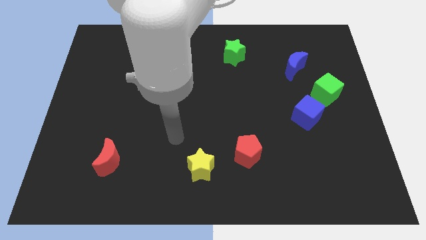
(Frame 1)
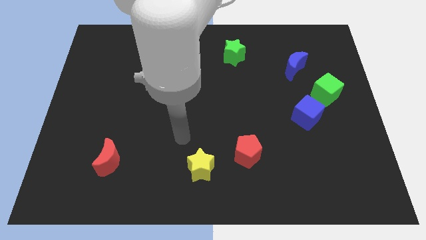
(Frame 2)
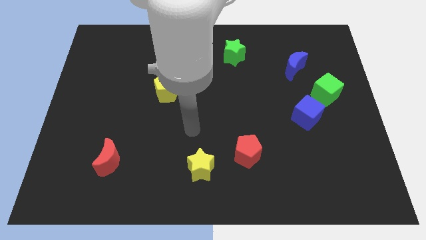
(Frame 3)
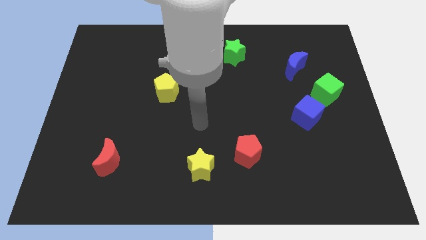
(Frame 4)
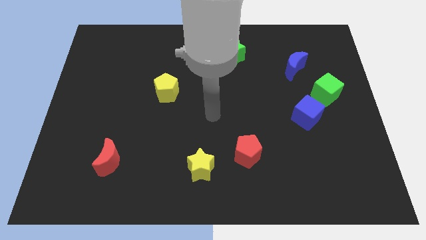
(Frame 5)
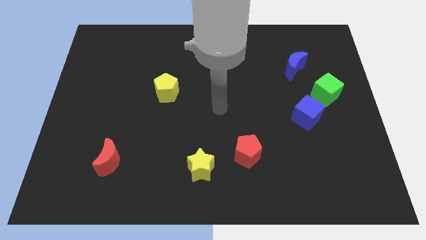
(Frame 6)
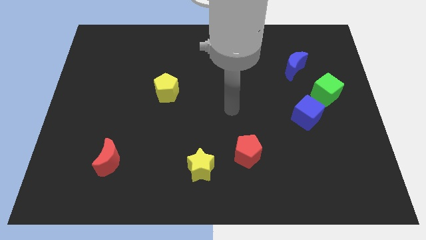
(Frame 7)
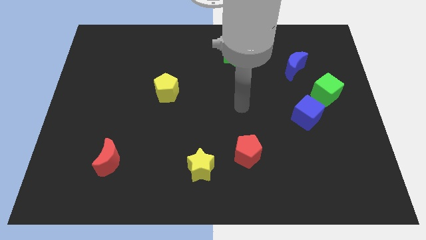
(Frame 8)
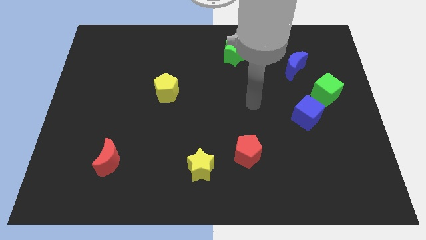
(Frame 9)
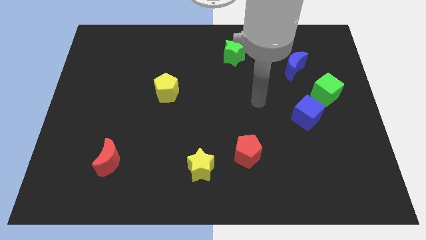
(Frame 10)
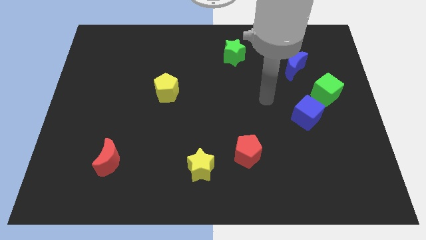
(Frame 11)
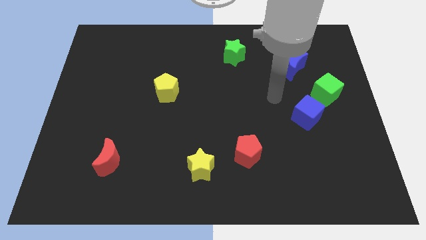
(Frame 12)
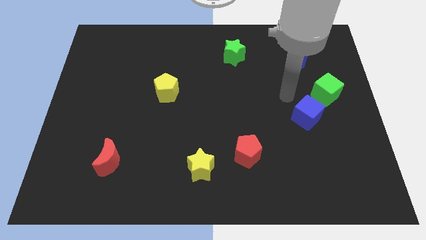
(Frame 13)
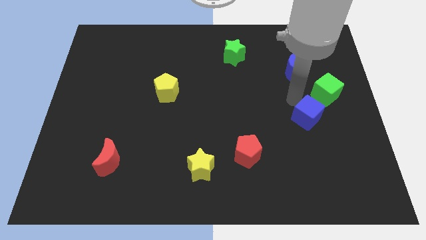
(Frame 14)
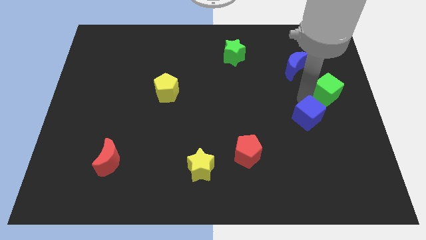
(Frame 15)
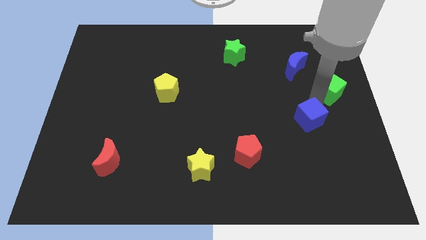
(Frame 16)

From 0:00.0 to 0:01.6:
pull the blue cube apart from the green cube

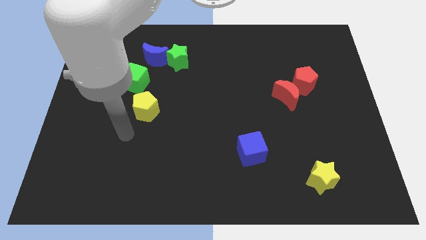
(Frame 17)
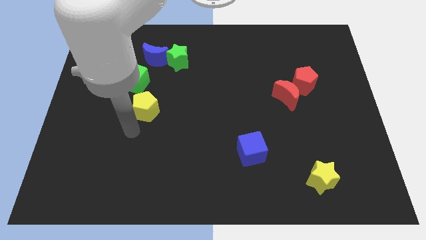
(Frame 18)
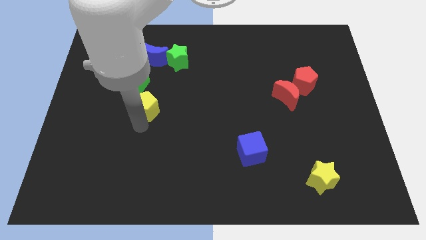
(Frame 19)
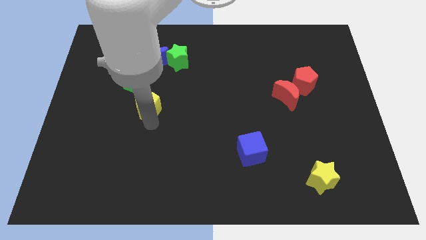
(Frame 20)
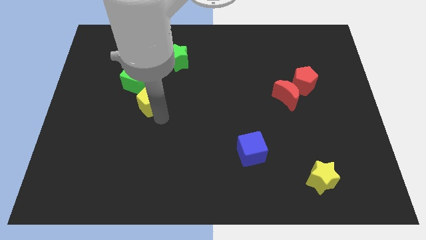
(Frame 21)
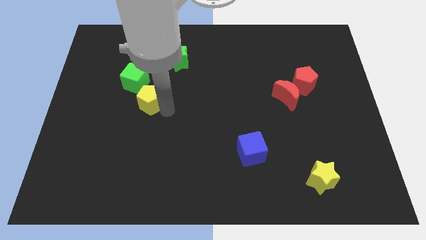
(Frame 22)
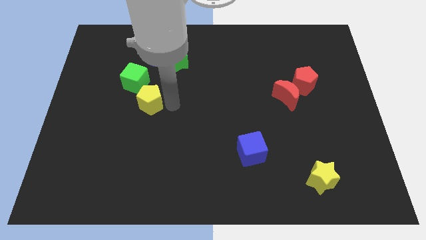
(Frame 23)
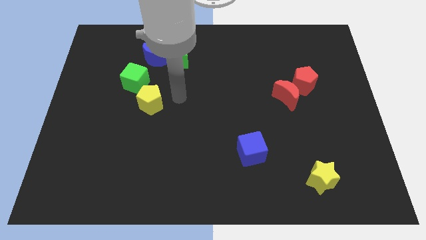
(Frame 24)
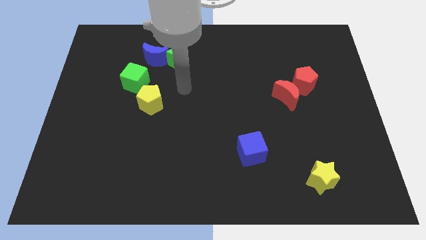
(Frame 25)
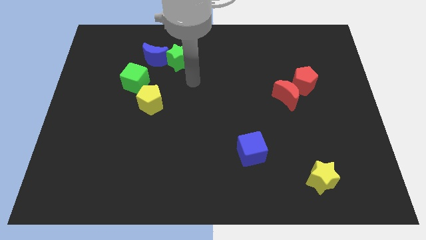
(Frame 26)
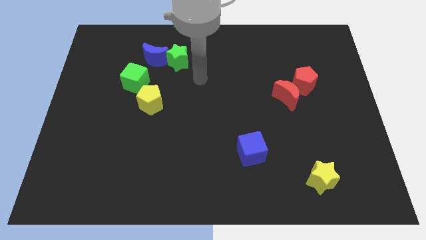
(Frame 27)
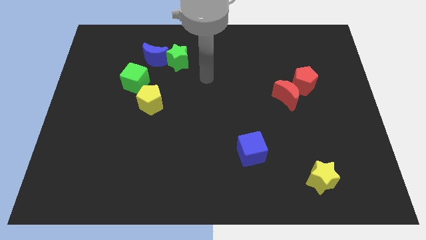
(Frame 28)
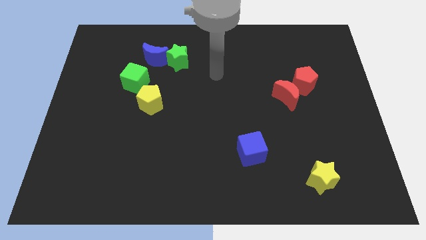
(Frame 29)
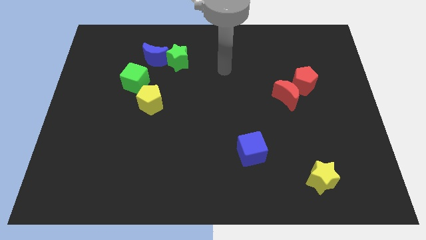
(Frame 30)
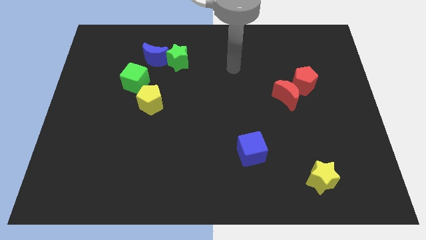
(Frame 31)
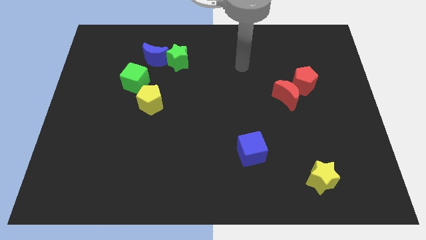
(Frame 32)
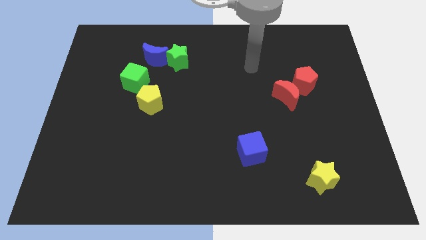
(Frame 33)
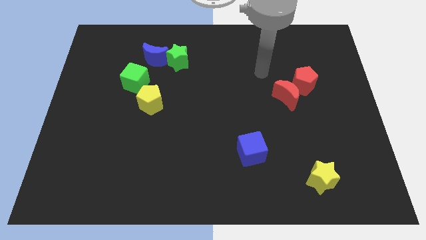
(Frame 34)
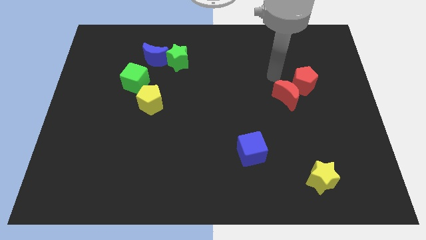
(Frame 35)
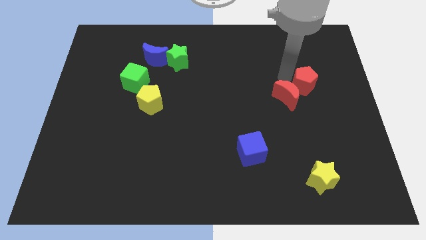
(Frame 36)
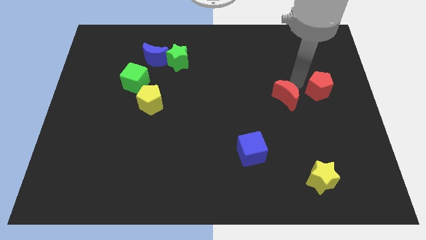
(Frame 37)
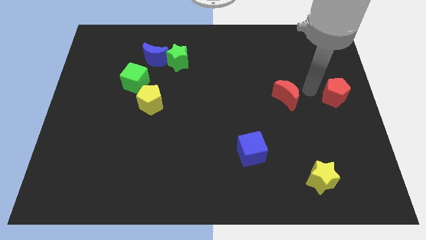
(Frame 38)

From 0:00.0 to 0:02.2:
pull the red moon apart from the red pentagon

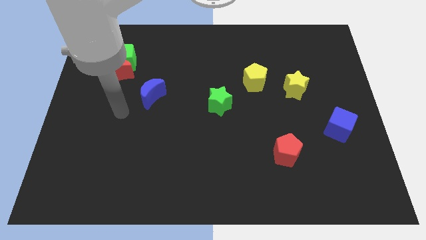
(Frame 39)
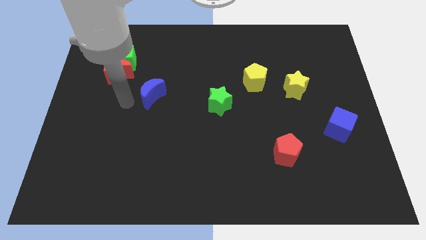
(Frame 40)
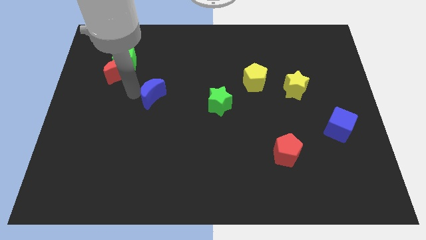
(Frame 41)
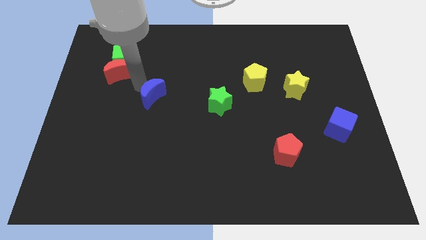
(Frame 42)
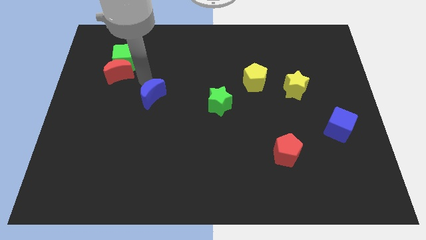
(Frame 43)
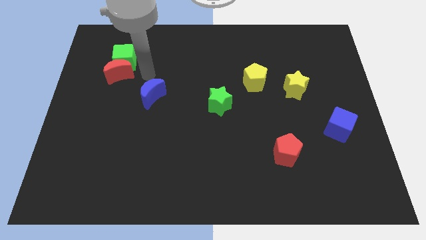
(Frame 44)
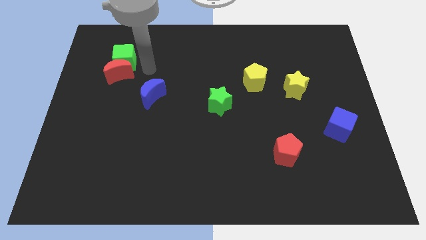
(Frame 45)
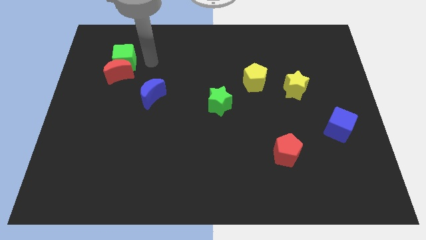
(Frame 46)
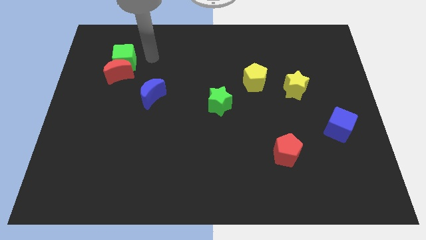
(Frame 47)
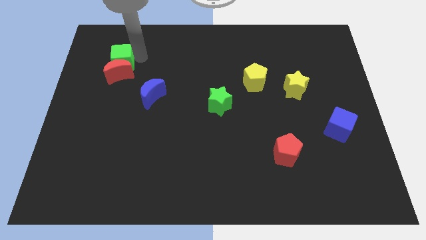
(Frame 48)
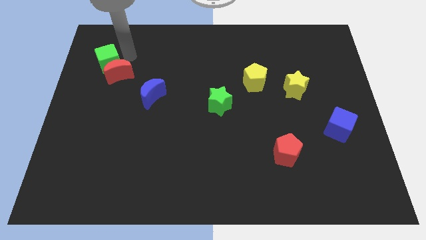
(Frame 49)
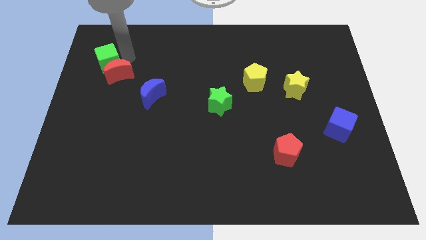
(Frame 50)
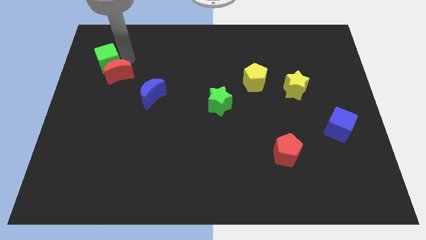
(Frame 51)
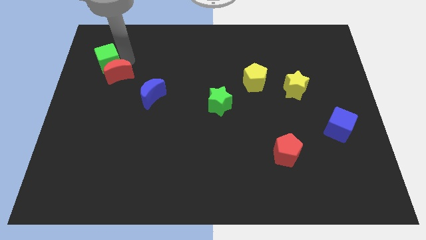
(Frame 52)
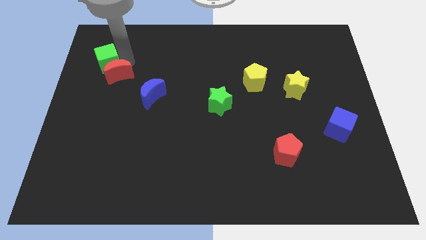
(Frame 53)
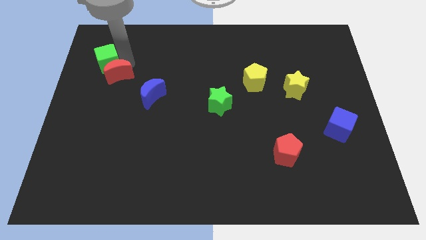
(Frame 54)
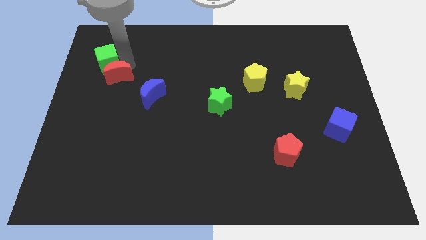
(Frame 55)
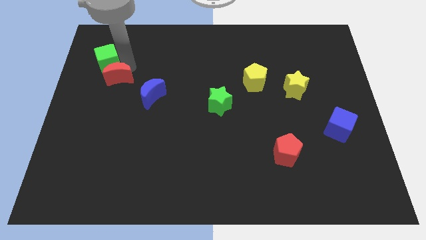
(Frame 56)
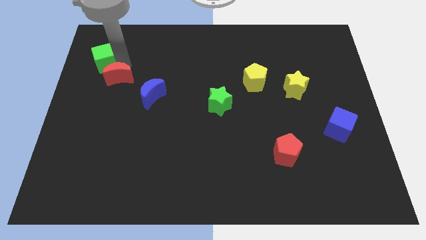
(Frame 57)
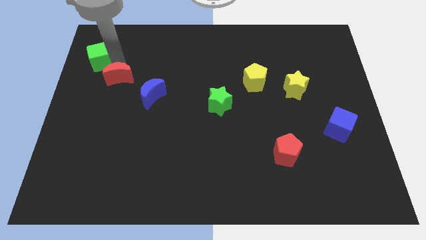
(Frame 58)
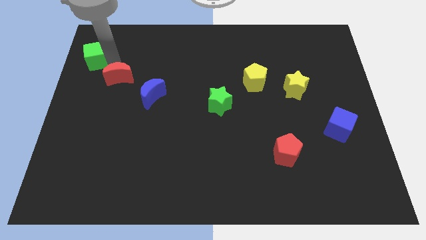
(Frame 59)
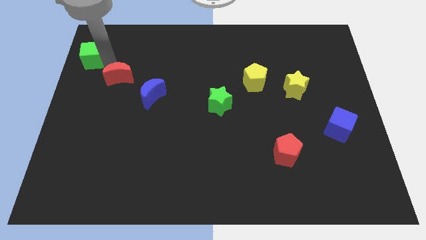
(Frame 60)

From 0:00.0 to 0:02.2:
move the red moon away from the green cube

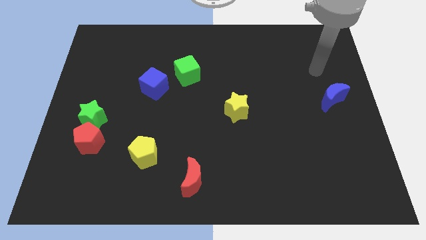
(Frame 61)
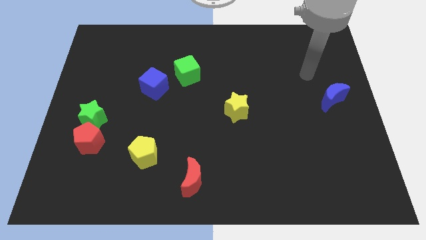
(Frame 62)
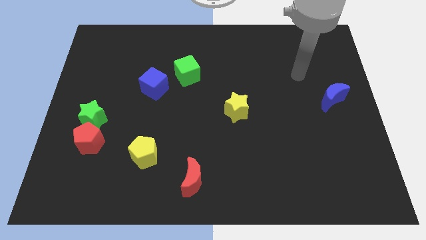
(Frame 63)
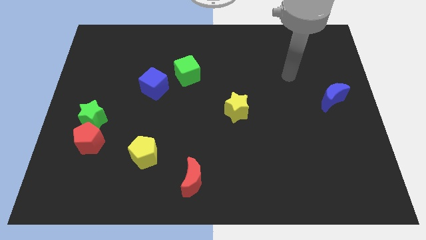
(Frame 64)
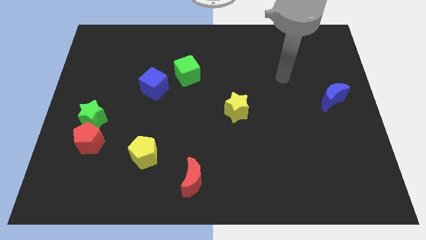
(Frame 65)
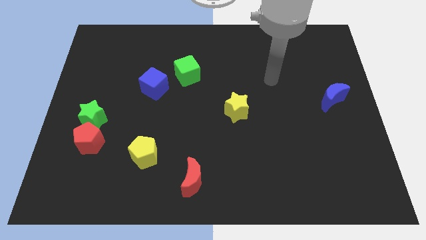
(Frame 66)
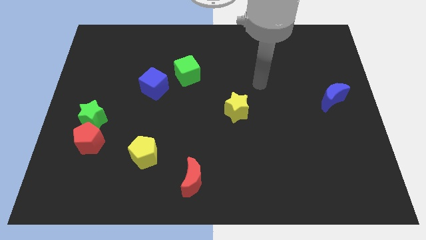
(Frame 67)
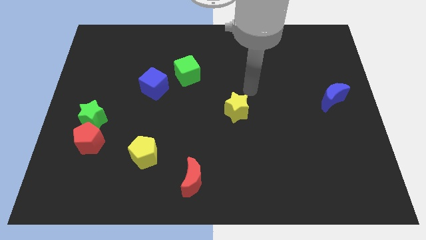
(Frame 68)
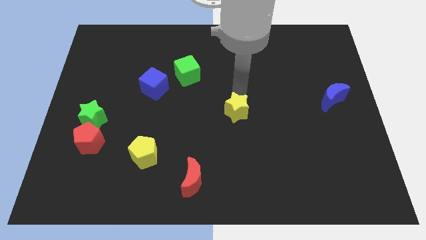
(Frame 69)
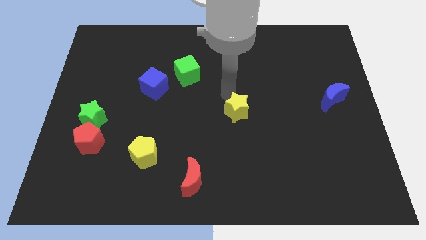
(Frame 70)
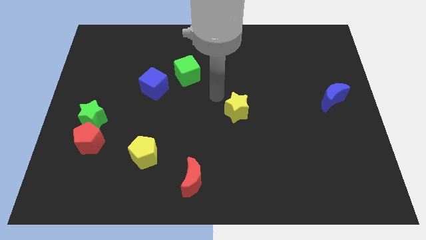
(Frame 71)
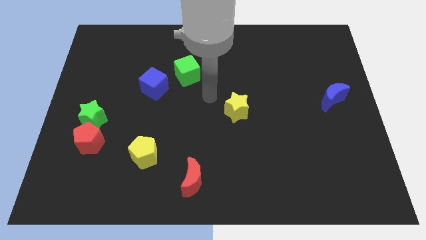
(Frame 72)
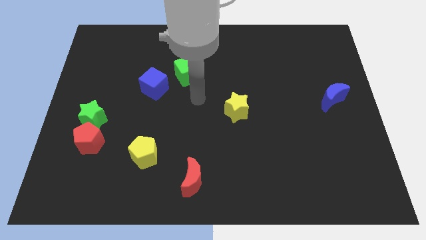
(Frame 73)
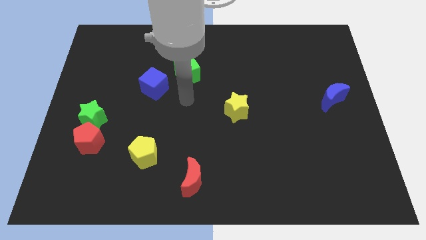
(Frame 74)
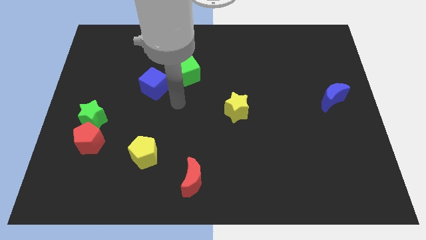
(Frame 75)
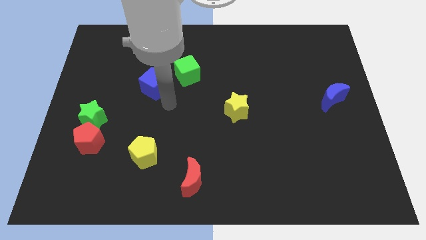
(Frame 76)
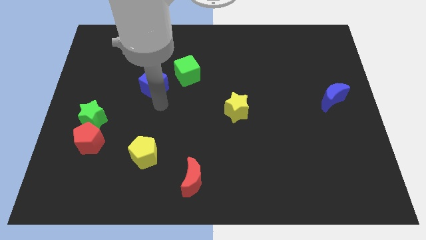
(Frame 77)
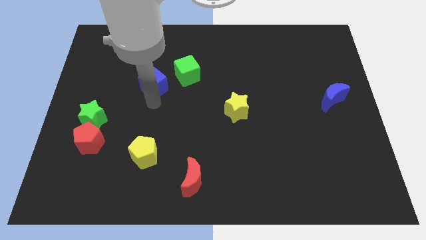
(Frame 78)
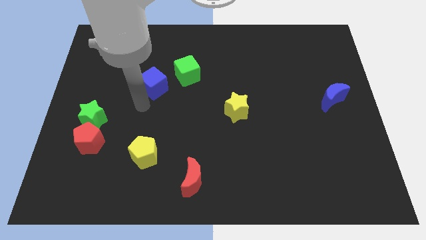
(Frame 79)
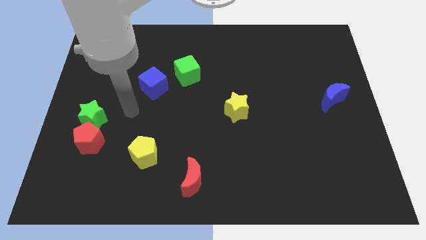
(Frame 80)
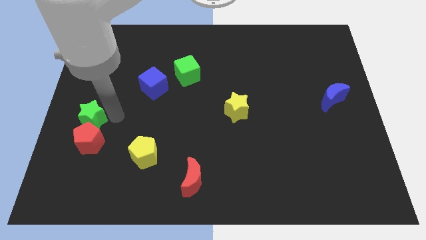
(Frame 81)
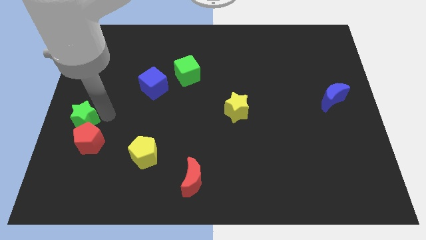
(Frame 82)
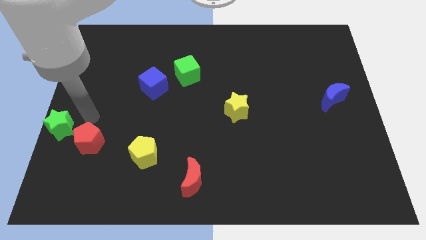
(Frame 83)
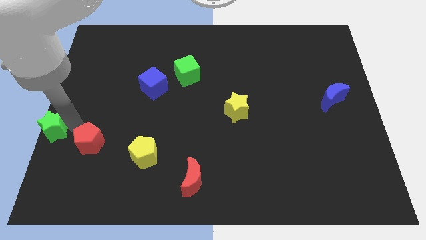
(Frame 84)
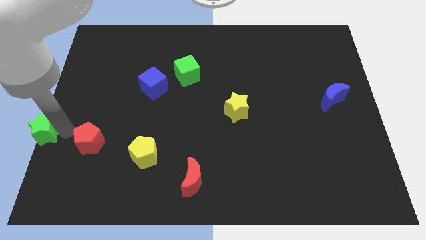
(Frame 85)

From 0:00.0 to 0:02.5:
separate the red pentagon from the green star

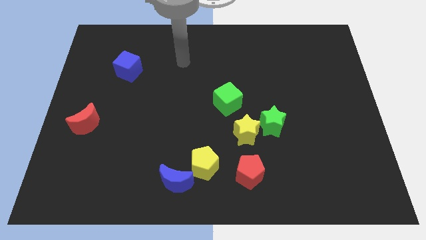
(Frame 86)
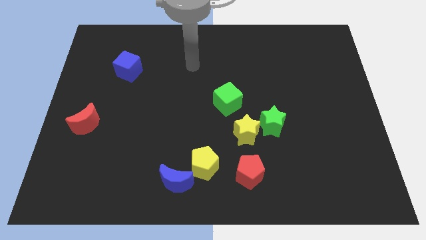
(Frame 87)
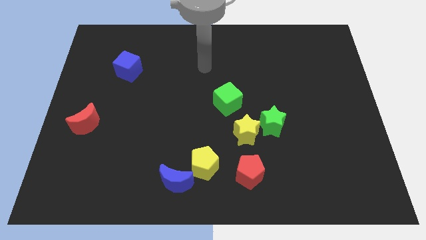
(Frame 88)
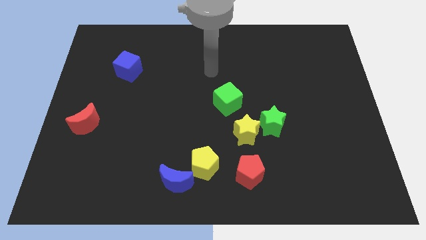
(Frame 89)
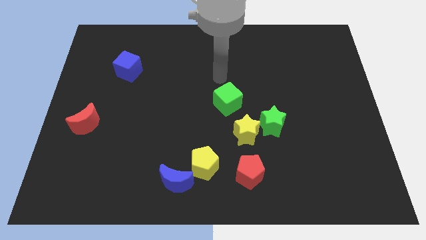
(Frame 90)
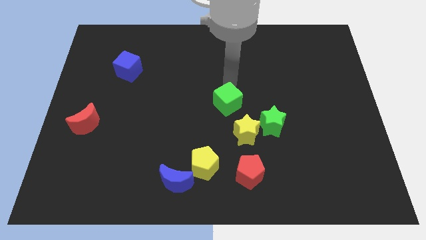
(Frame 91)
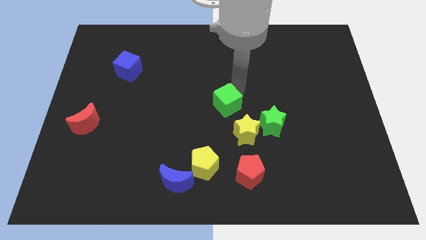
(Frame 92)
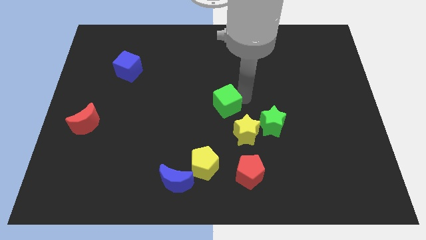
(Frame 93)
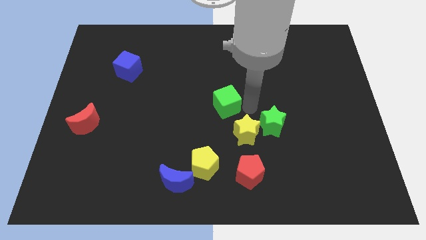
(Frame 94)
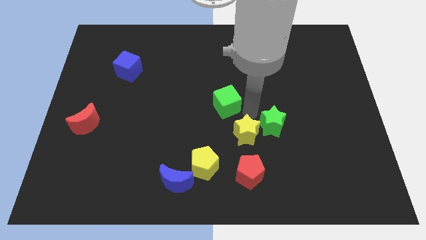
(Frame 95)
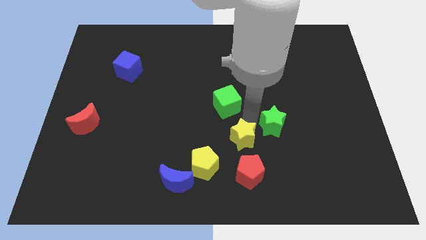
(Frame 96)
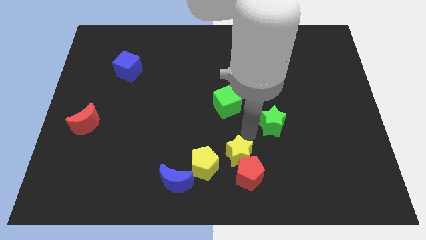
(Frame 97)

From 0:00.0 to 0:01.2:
pull the green star apart from the yellow star
